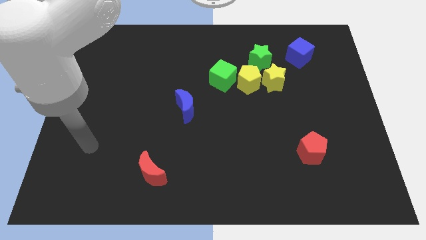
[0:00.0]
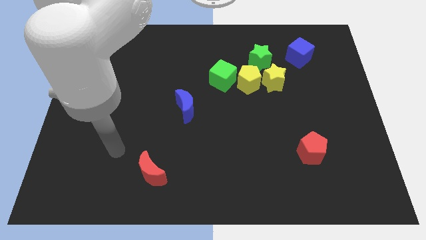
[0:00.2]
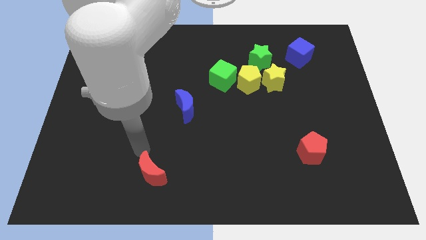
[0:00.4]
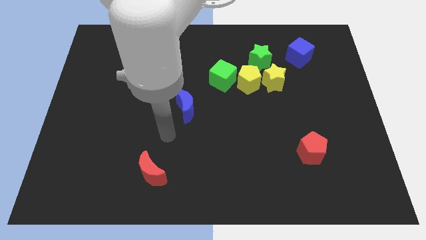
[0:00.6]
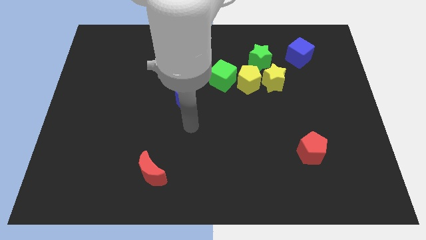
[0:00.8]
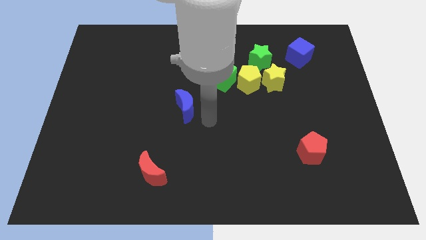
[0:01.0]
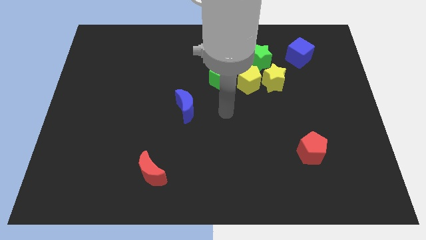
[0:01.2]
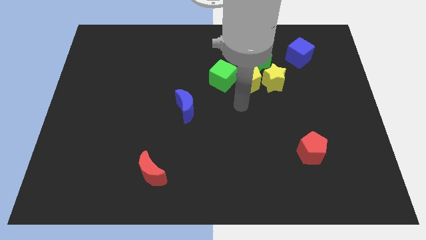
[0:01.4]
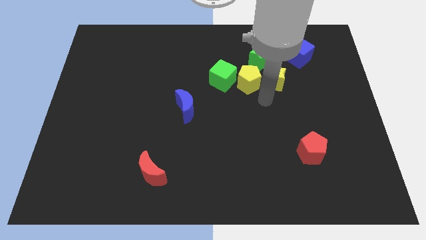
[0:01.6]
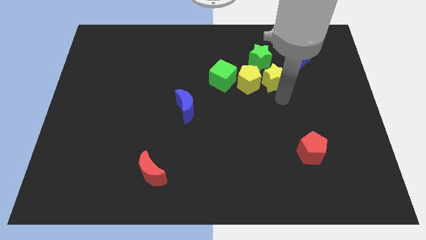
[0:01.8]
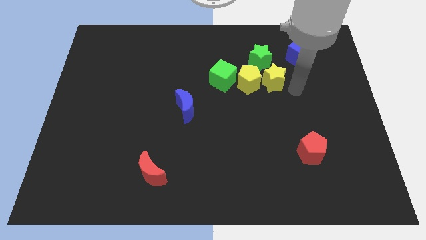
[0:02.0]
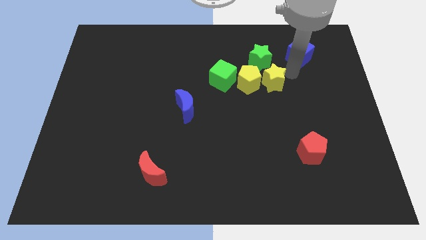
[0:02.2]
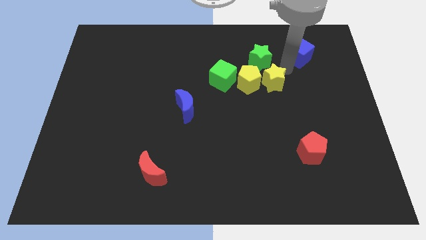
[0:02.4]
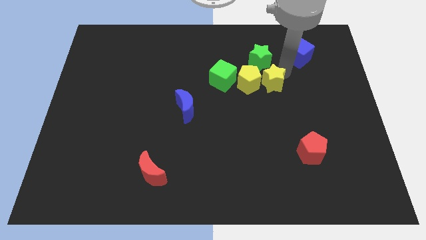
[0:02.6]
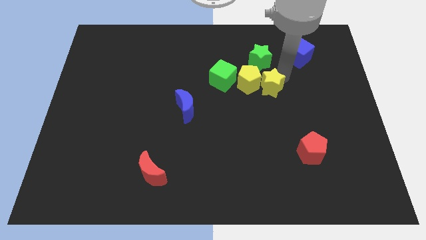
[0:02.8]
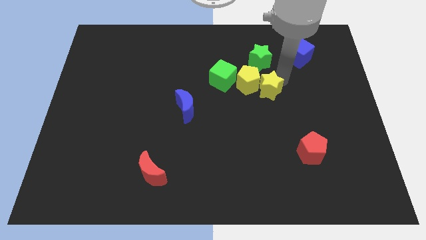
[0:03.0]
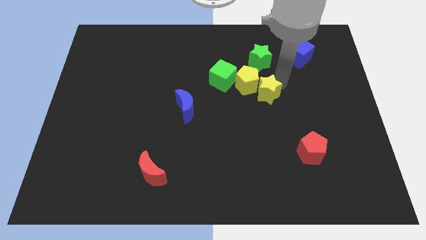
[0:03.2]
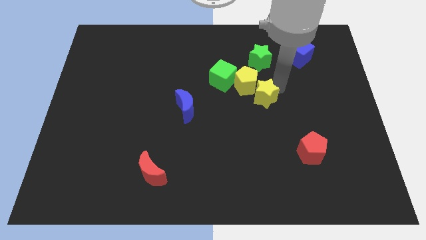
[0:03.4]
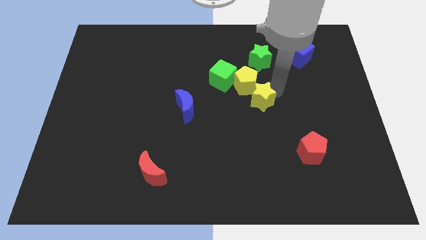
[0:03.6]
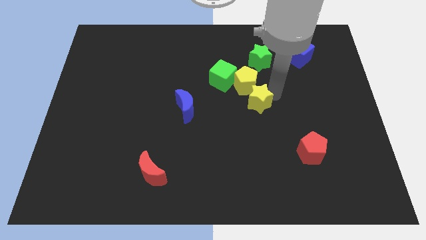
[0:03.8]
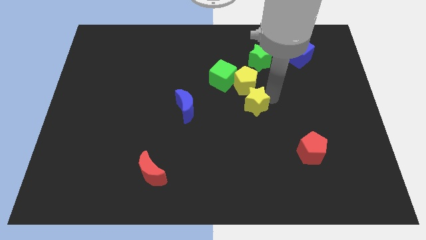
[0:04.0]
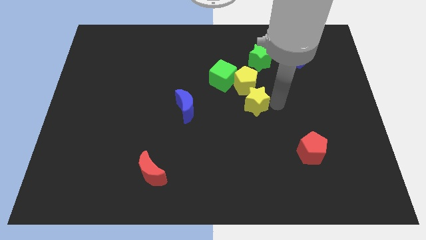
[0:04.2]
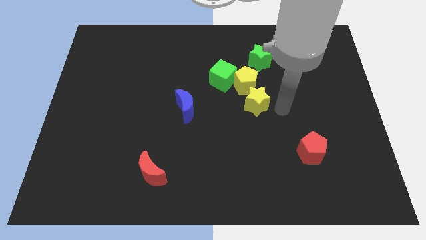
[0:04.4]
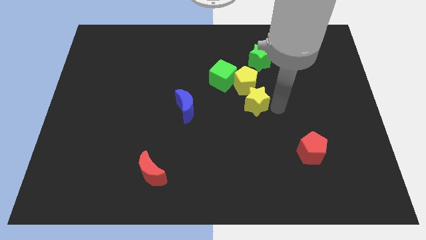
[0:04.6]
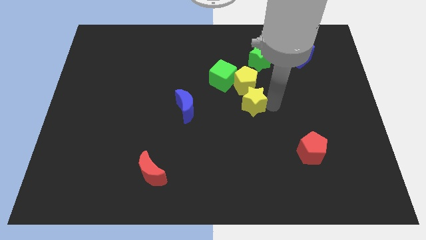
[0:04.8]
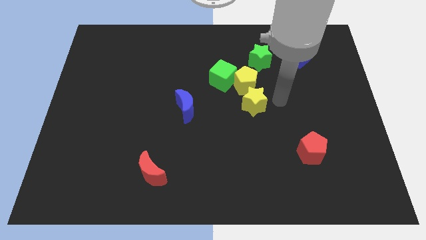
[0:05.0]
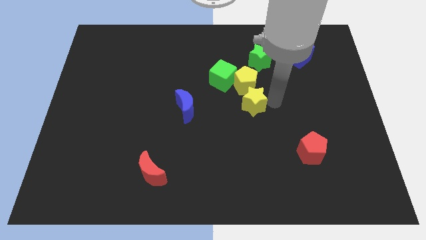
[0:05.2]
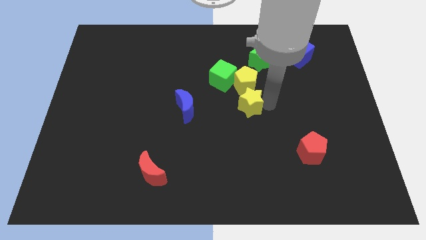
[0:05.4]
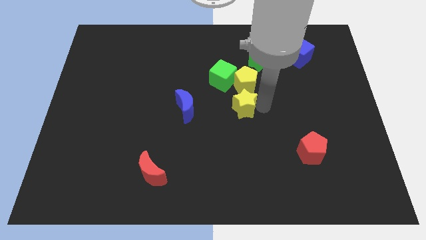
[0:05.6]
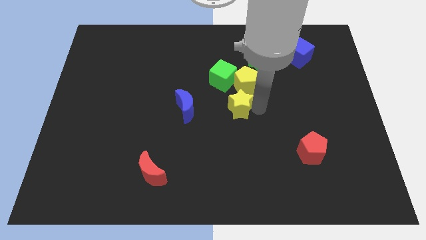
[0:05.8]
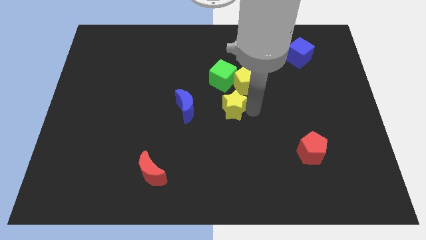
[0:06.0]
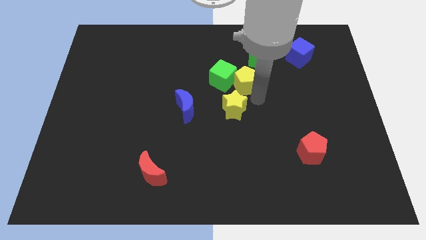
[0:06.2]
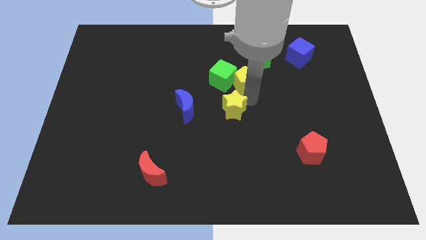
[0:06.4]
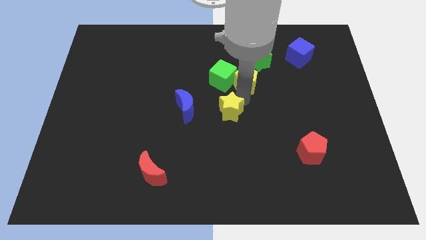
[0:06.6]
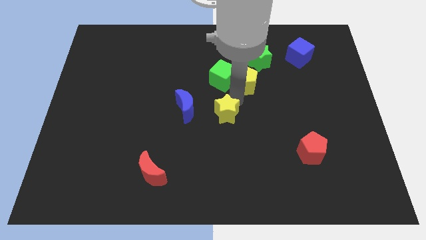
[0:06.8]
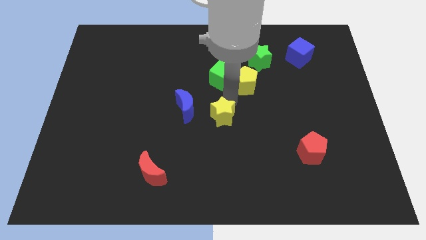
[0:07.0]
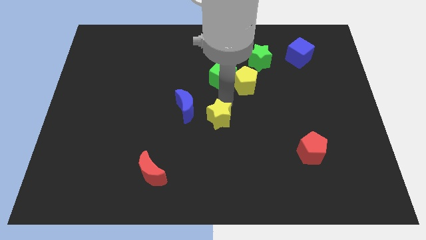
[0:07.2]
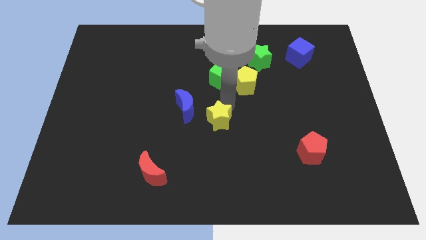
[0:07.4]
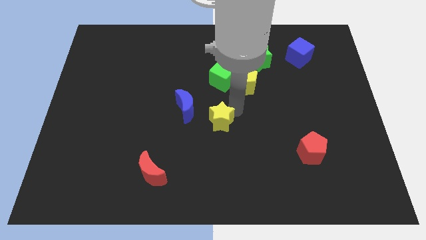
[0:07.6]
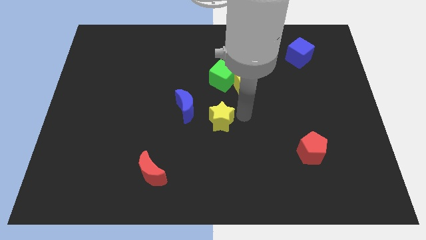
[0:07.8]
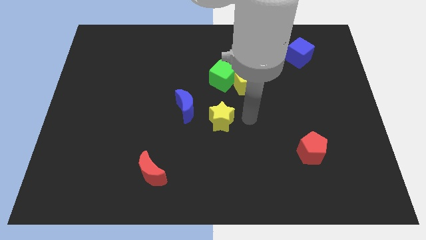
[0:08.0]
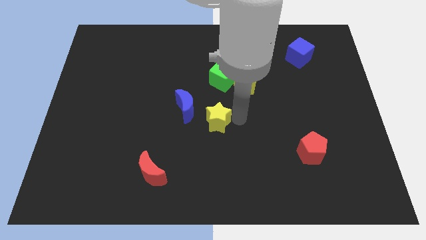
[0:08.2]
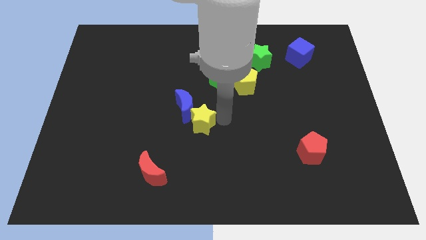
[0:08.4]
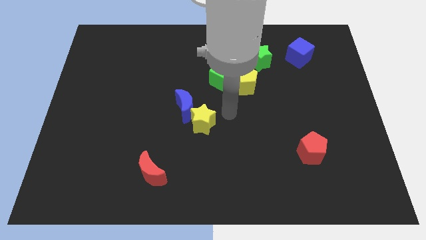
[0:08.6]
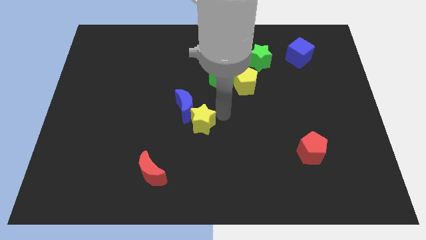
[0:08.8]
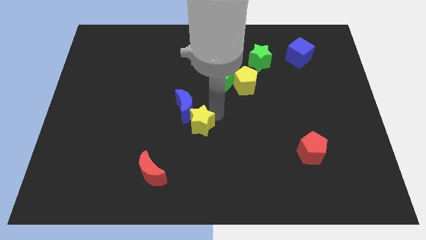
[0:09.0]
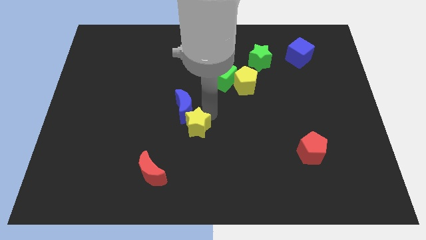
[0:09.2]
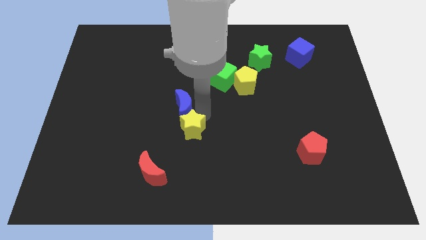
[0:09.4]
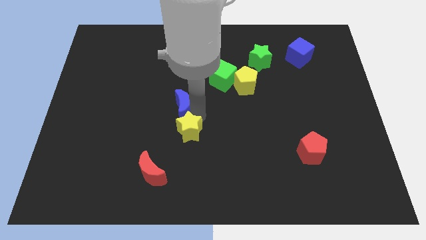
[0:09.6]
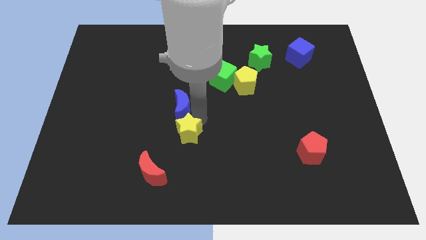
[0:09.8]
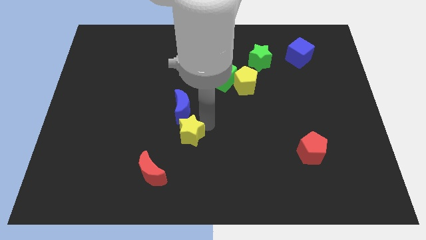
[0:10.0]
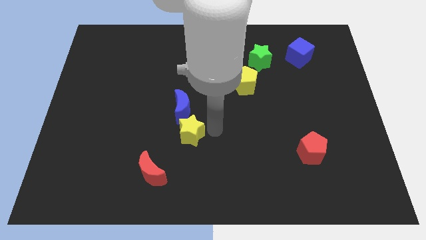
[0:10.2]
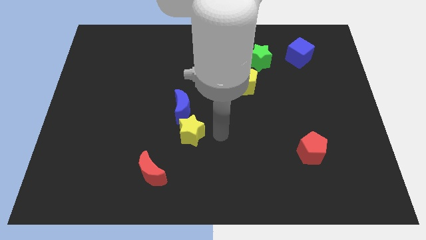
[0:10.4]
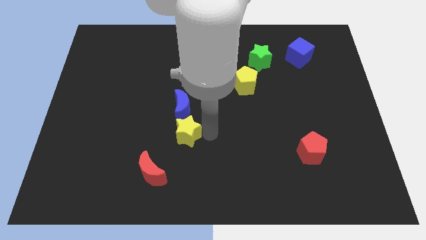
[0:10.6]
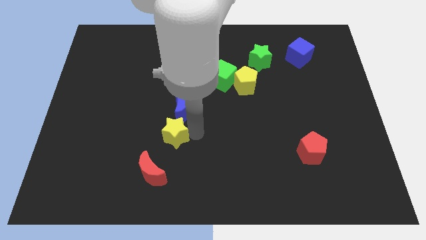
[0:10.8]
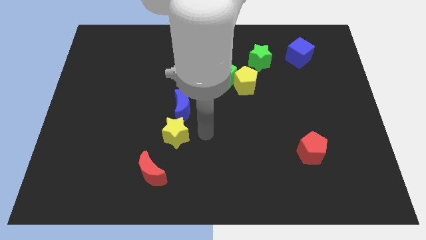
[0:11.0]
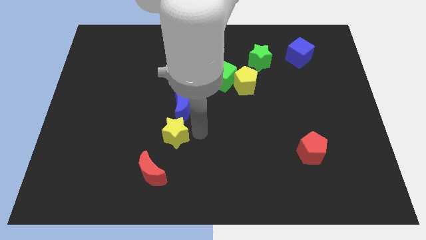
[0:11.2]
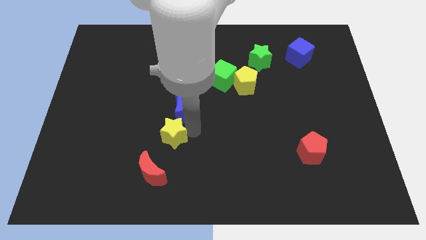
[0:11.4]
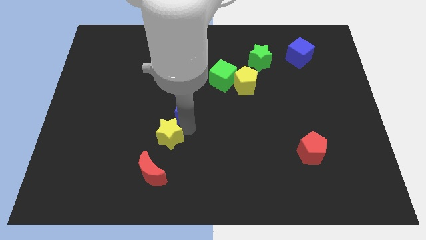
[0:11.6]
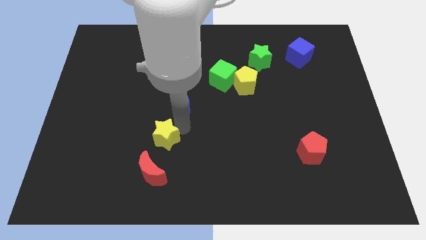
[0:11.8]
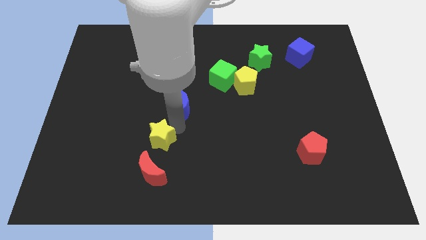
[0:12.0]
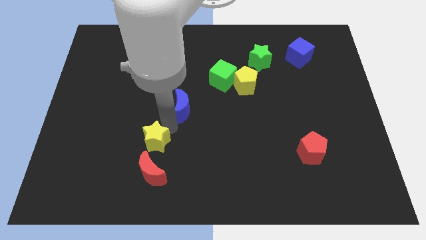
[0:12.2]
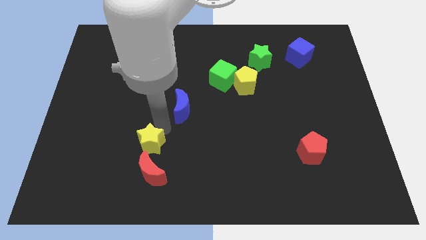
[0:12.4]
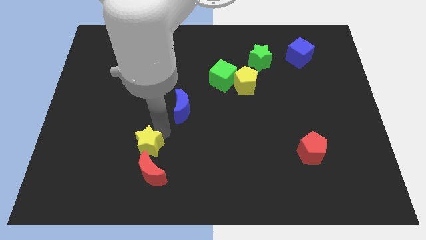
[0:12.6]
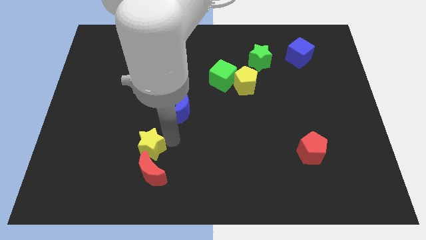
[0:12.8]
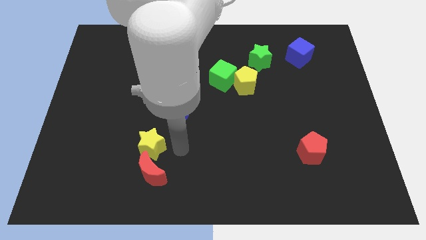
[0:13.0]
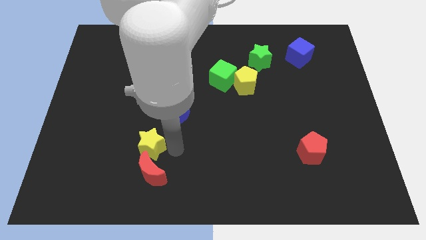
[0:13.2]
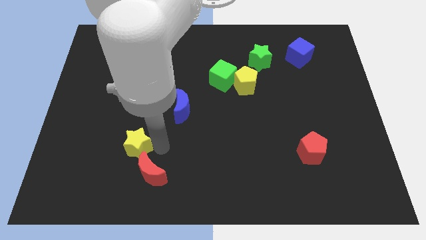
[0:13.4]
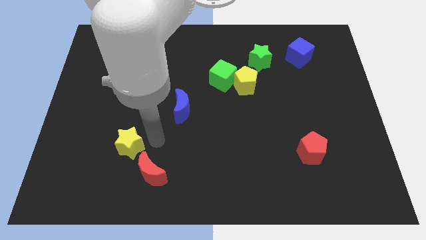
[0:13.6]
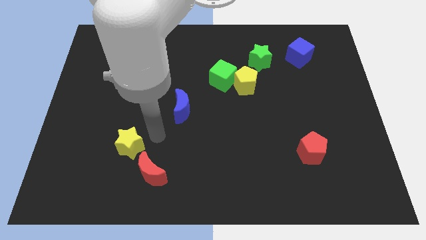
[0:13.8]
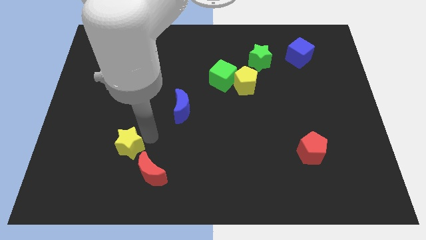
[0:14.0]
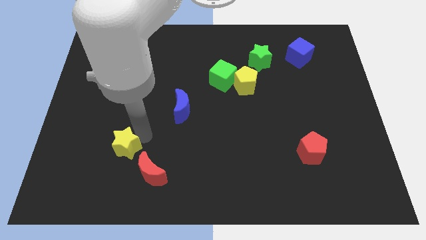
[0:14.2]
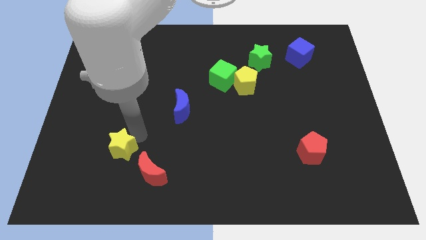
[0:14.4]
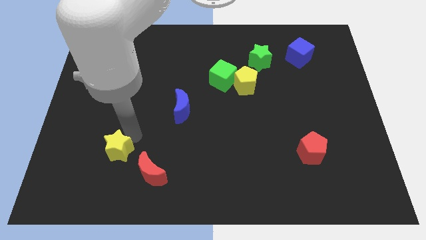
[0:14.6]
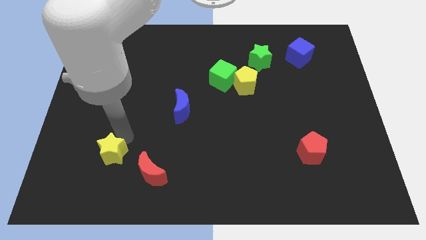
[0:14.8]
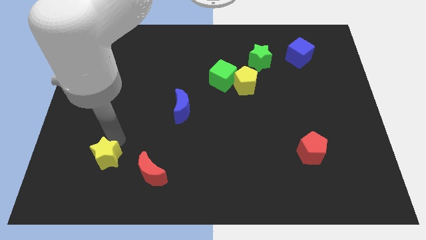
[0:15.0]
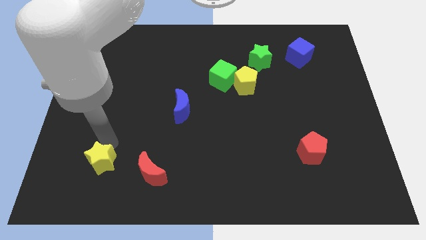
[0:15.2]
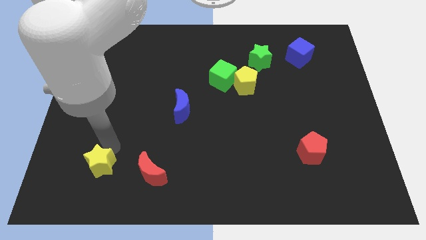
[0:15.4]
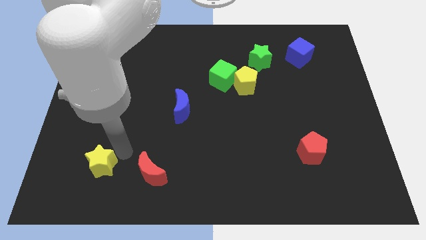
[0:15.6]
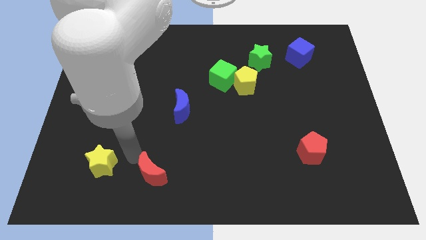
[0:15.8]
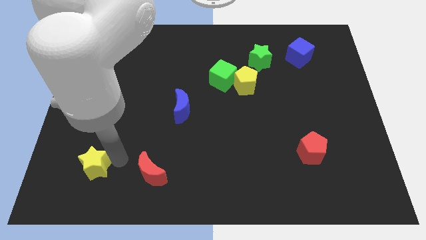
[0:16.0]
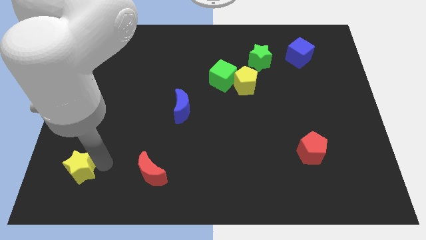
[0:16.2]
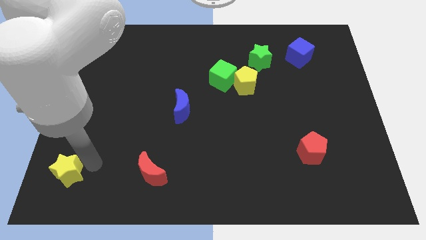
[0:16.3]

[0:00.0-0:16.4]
slide the yellow star to the bottom left corner
